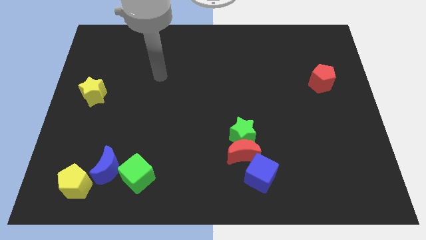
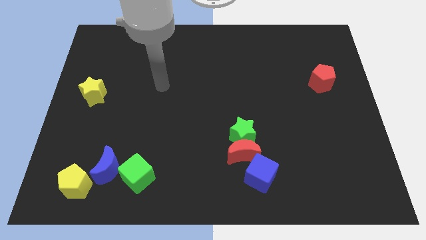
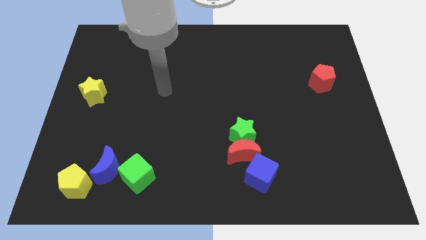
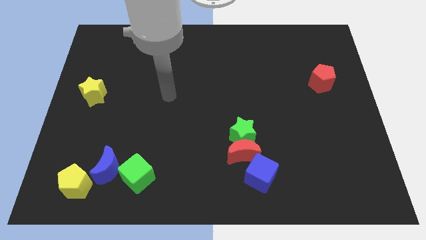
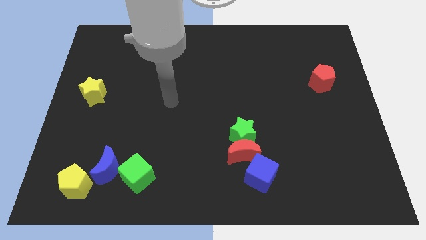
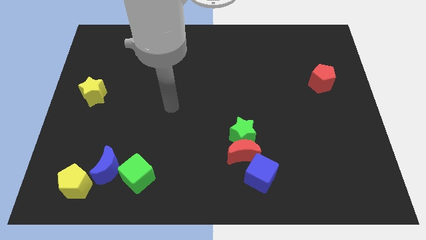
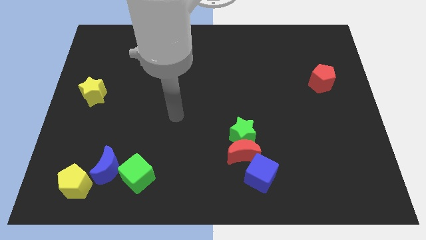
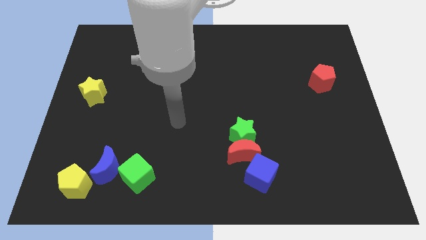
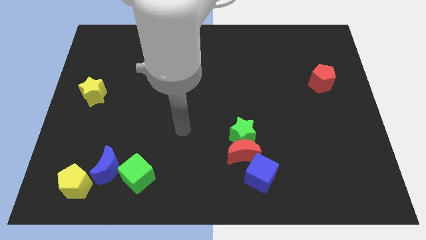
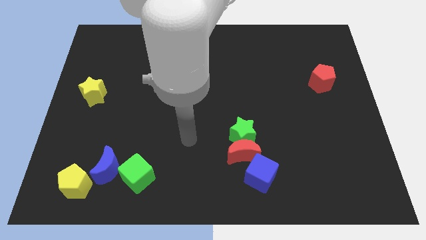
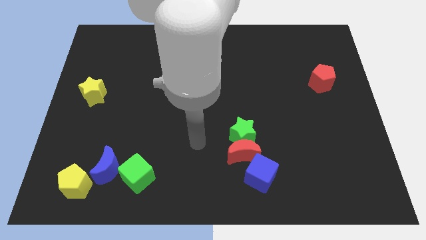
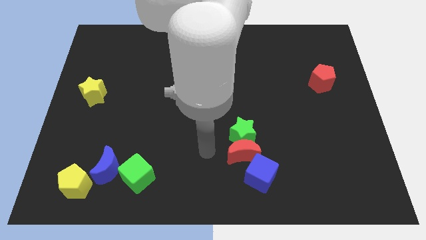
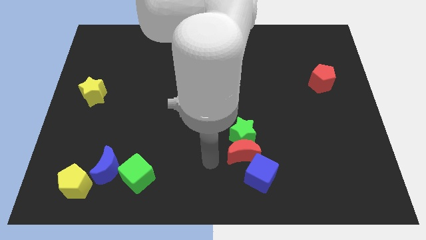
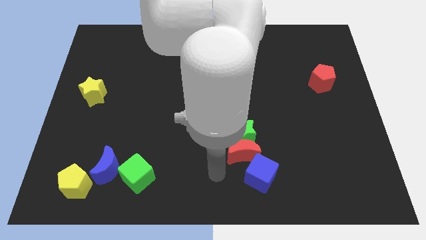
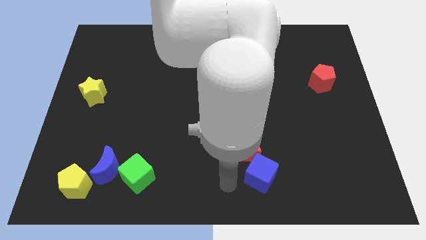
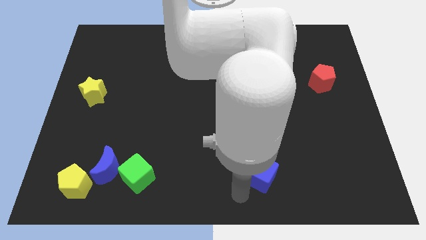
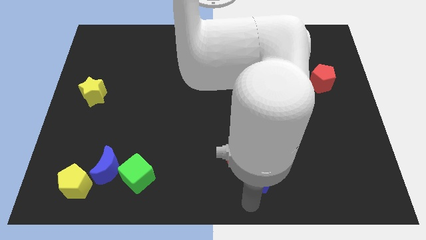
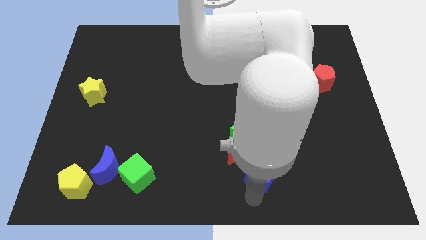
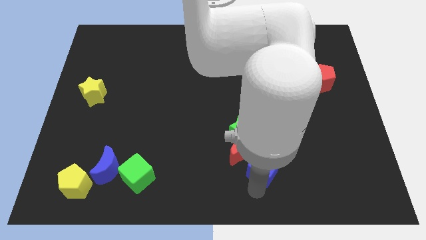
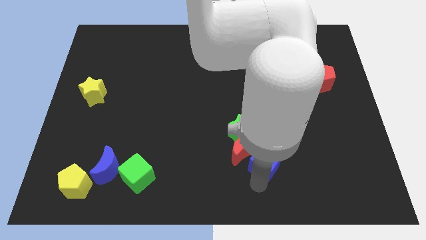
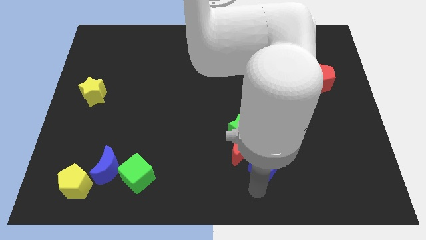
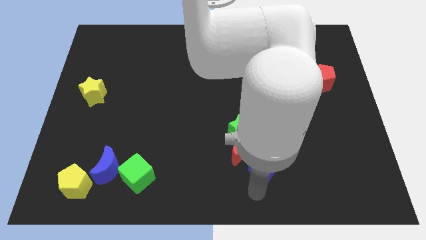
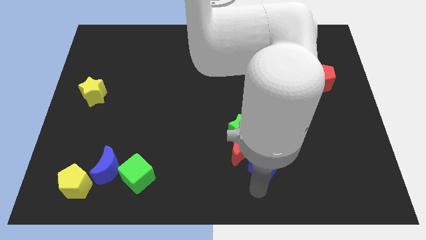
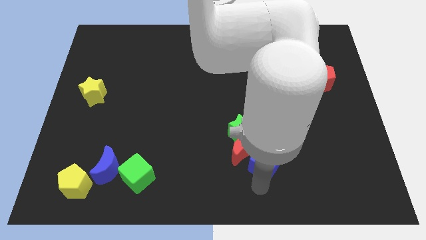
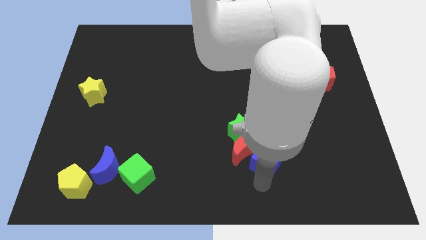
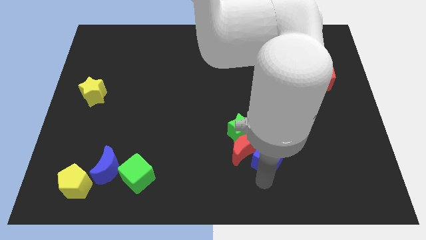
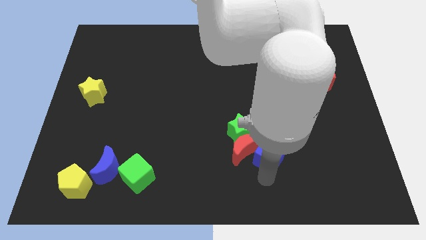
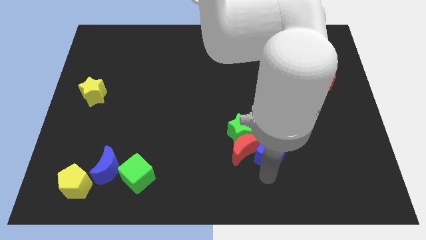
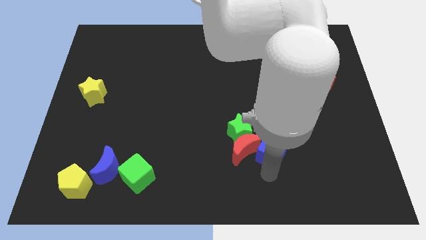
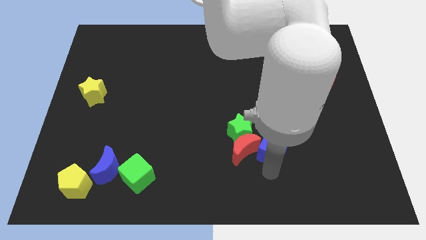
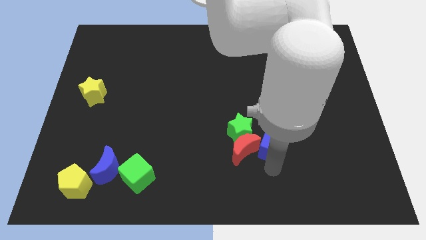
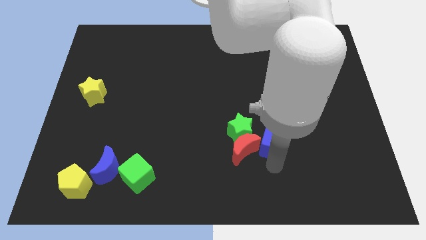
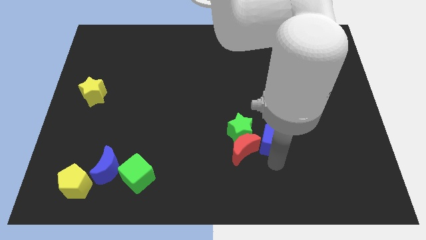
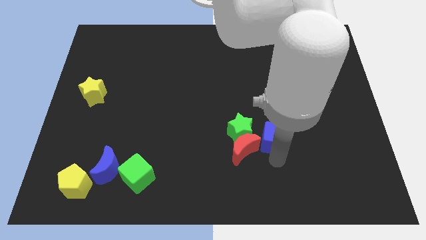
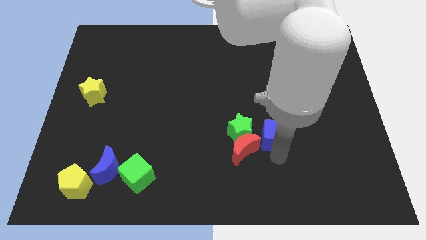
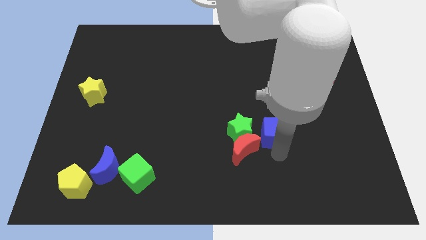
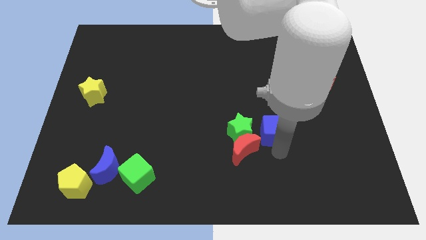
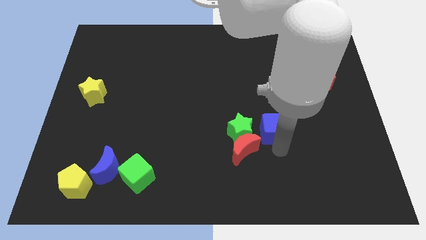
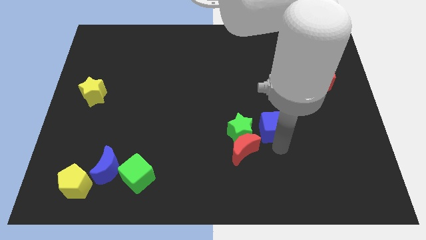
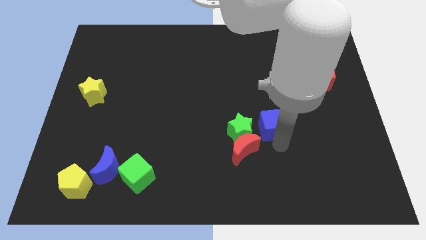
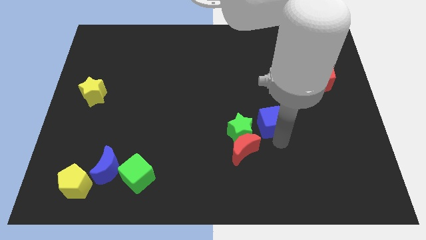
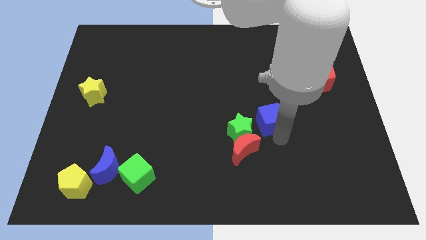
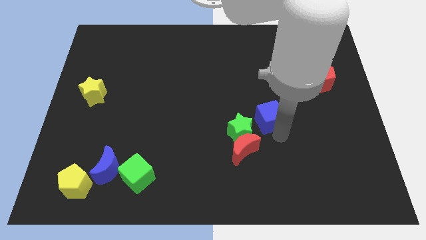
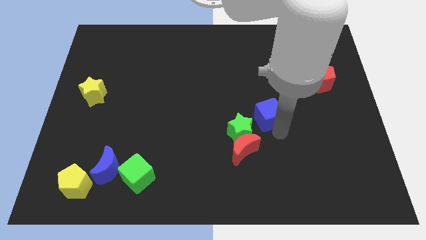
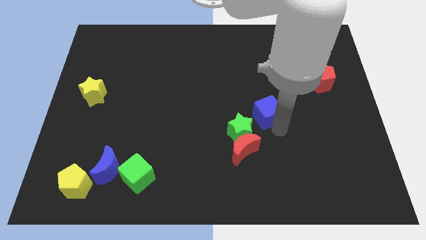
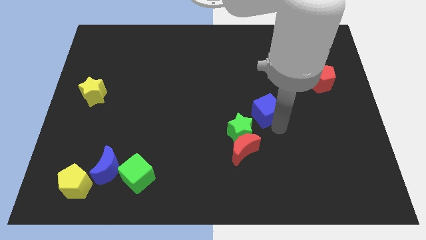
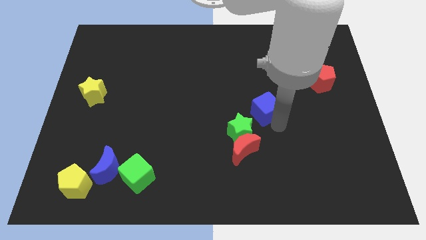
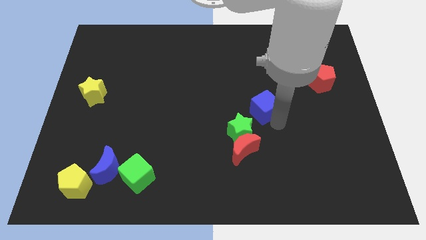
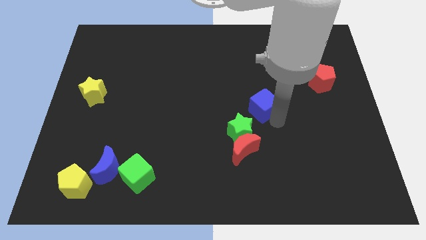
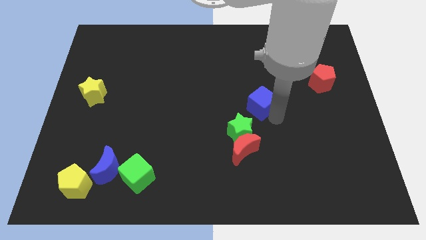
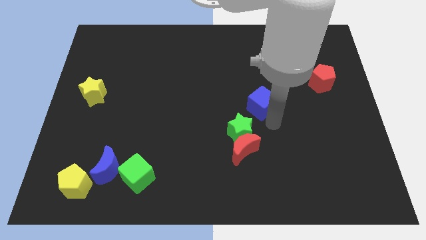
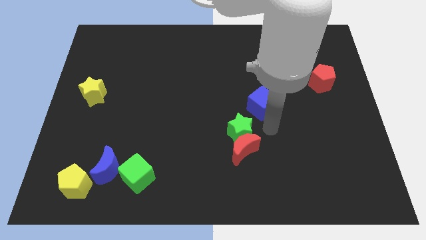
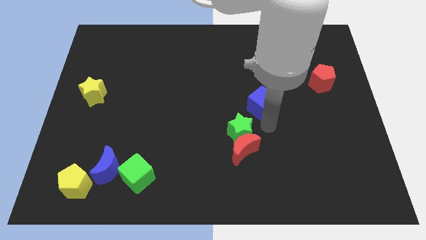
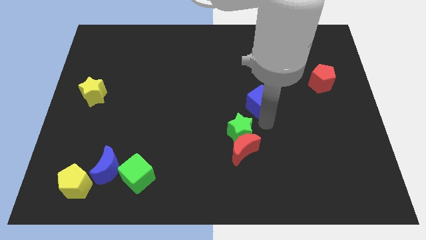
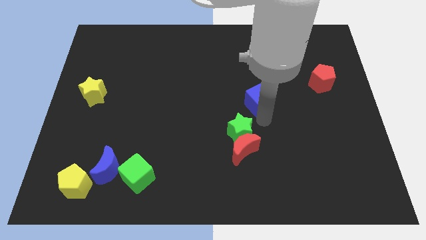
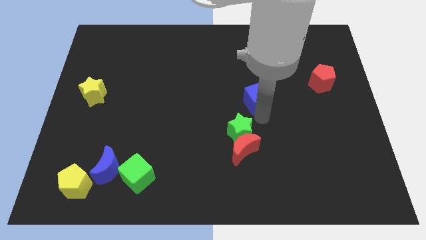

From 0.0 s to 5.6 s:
move the blue cube upwards

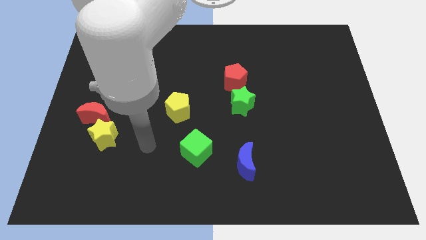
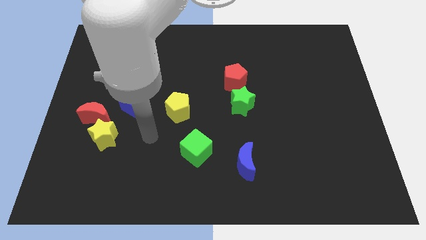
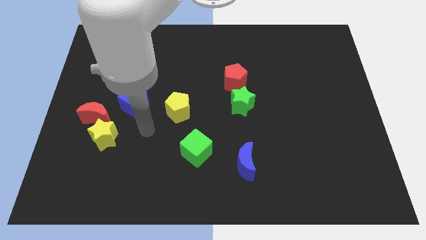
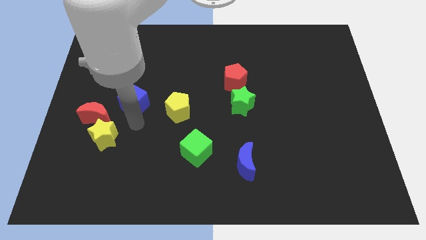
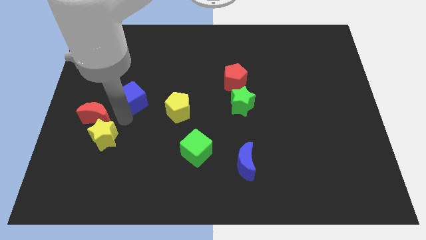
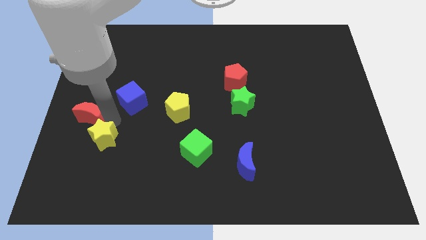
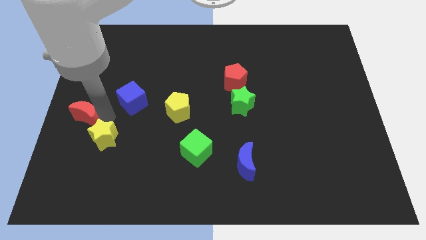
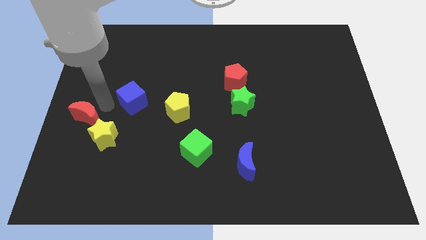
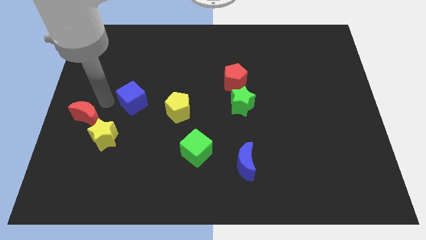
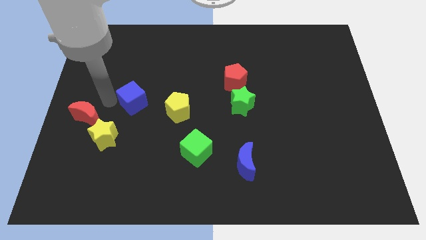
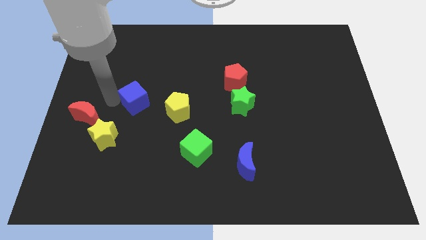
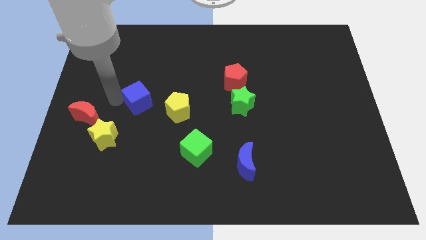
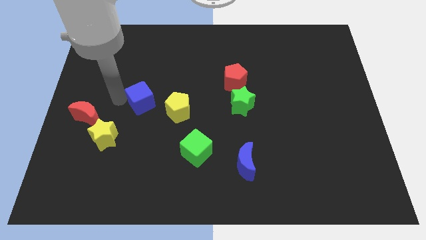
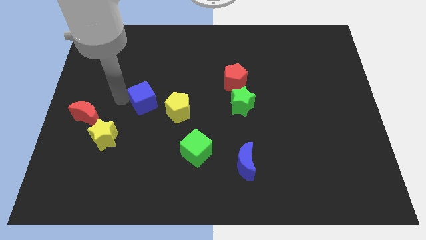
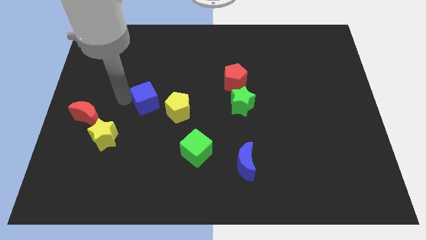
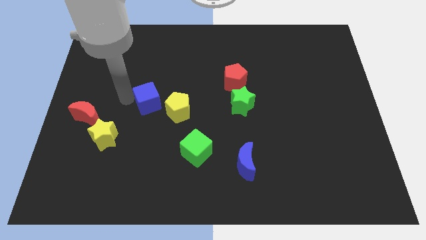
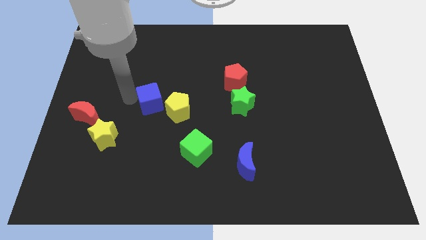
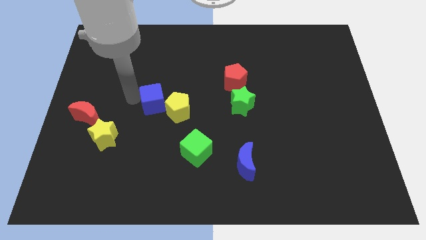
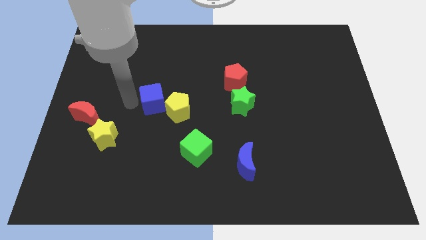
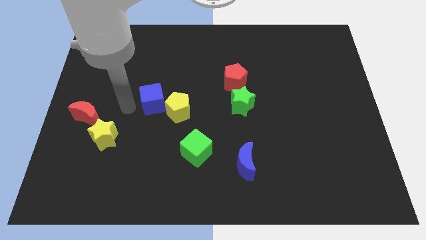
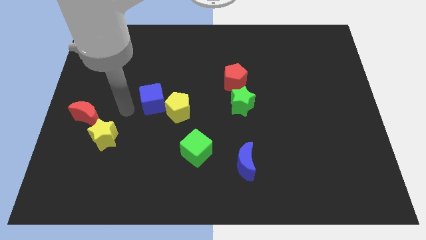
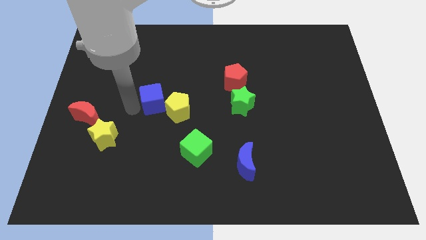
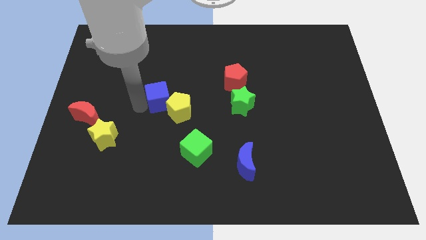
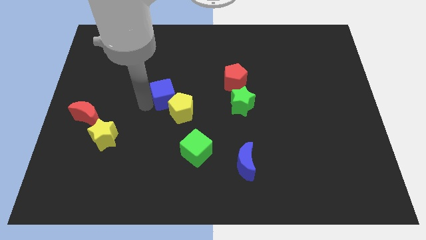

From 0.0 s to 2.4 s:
slide the blue cube right slightly

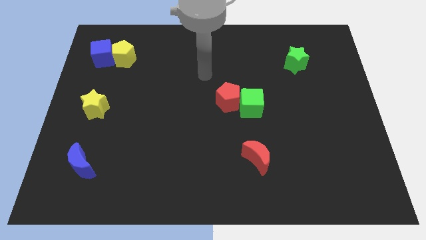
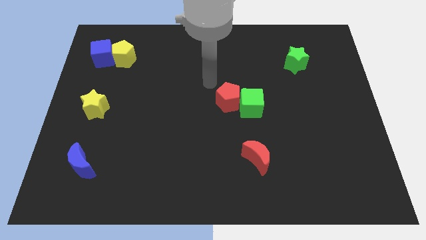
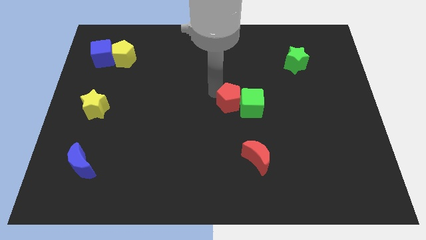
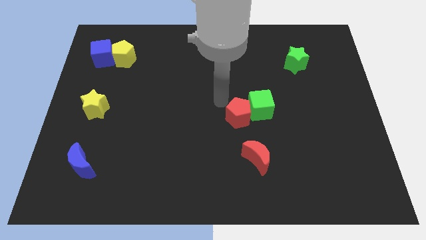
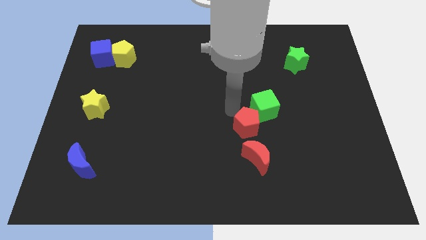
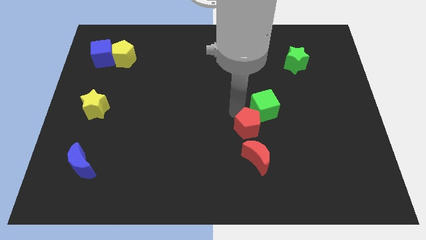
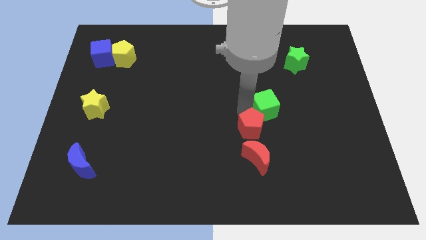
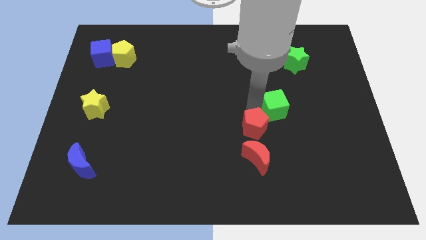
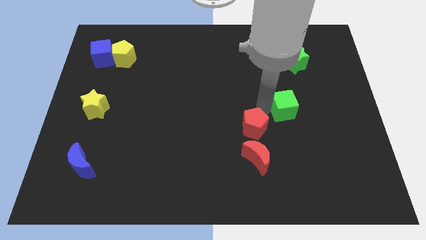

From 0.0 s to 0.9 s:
push the green cube to the right somewhat
